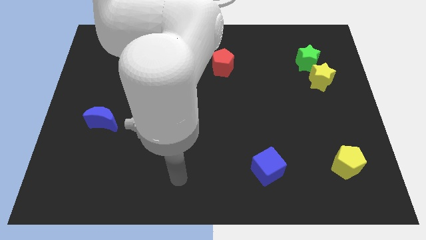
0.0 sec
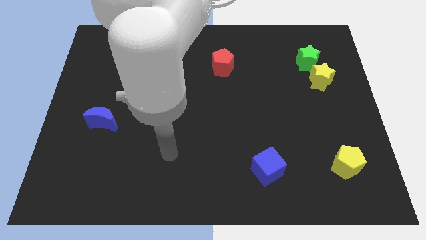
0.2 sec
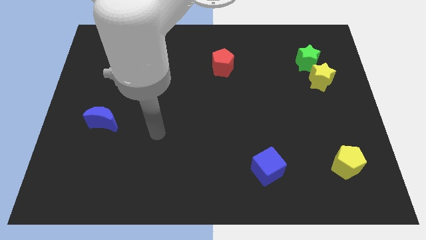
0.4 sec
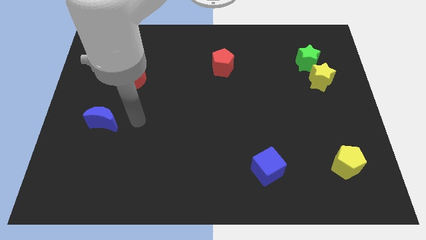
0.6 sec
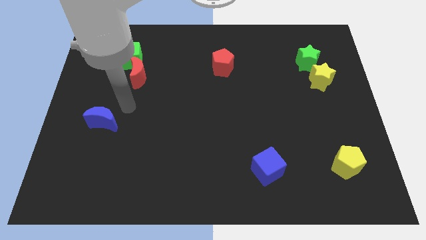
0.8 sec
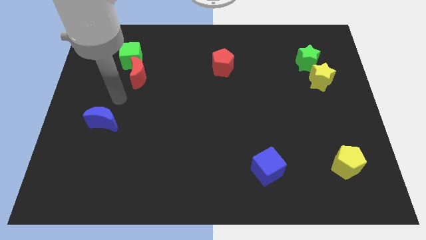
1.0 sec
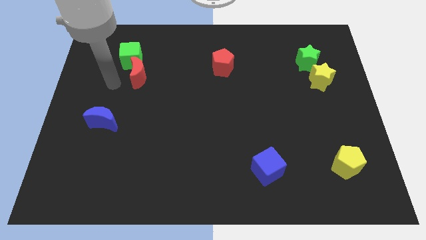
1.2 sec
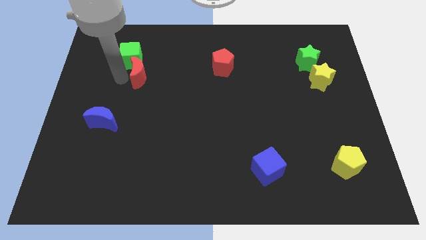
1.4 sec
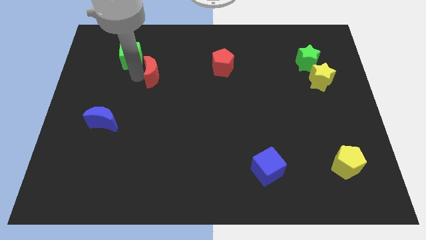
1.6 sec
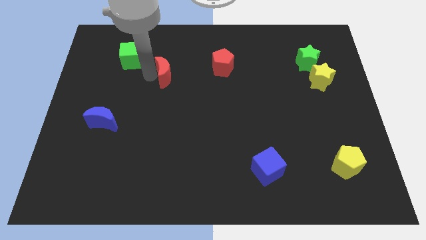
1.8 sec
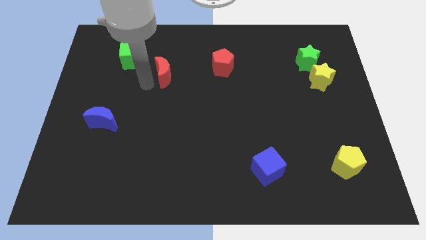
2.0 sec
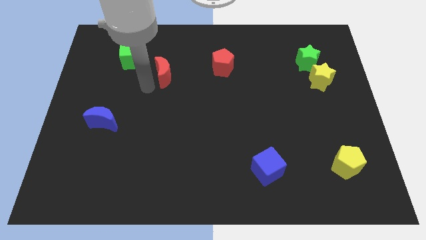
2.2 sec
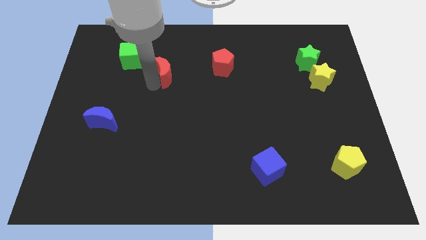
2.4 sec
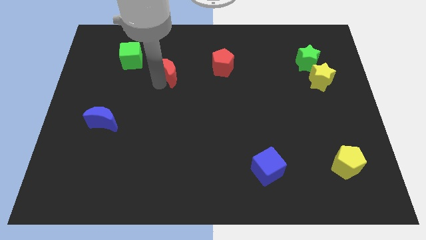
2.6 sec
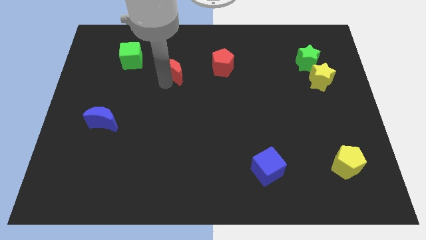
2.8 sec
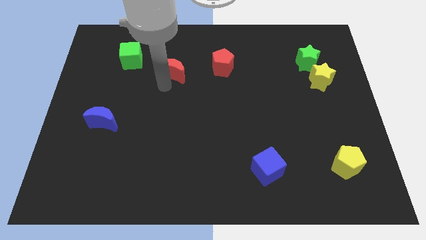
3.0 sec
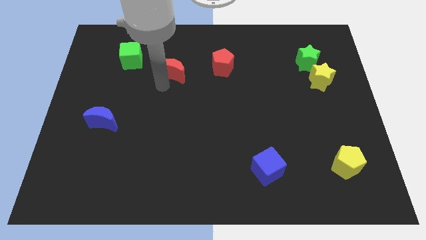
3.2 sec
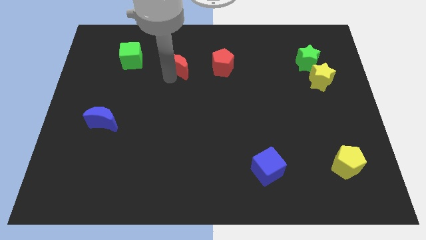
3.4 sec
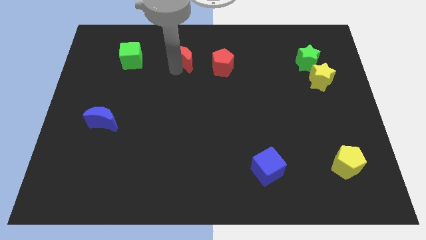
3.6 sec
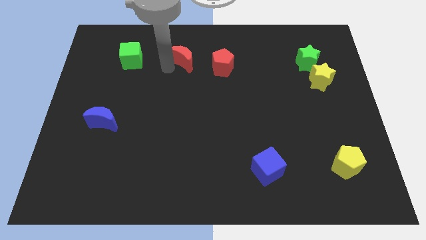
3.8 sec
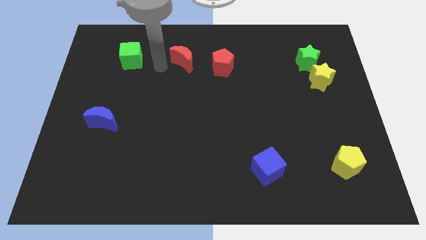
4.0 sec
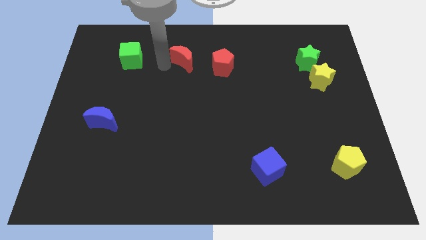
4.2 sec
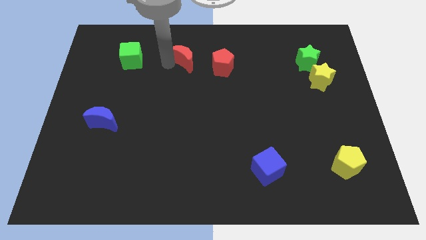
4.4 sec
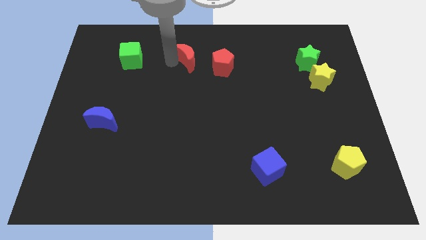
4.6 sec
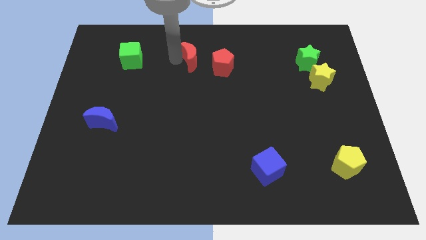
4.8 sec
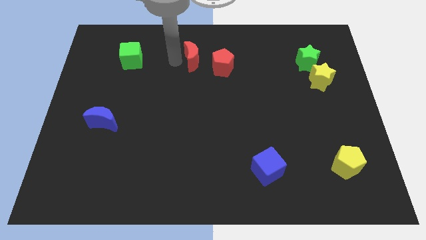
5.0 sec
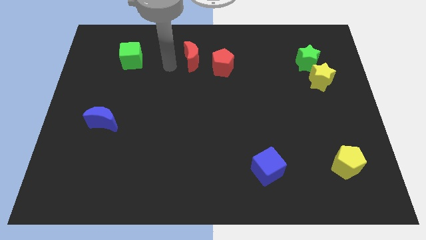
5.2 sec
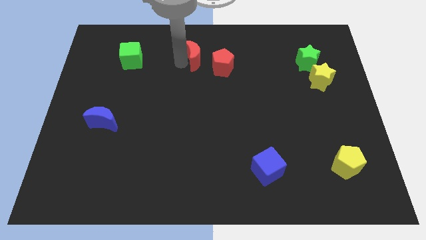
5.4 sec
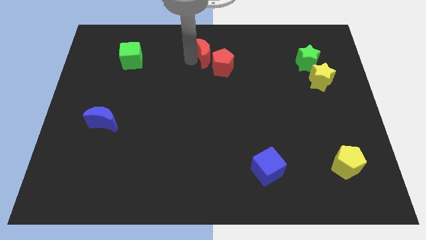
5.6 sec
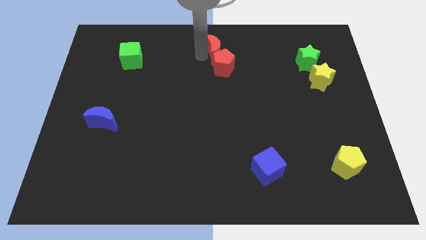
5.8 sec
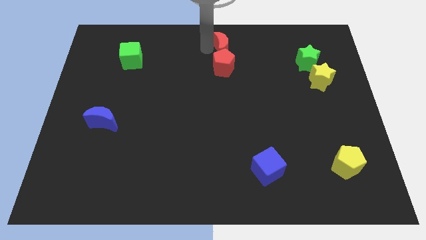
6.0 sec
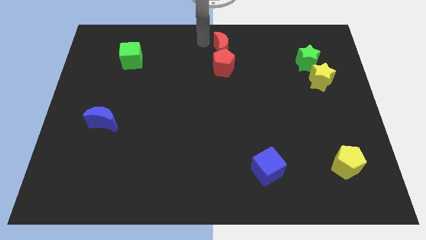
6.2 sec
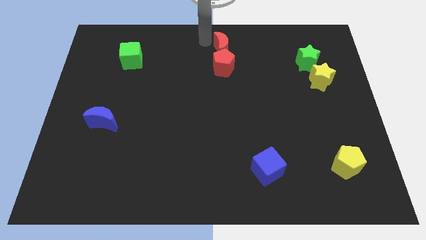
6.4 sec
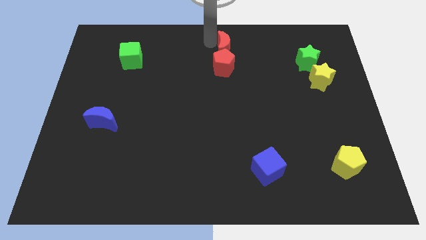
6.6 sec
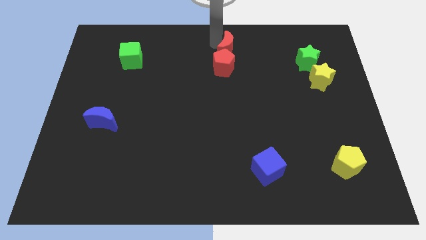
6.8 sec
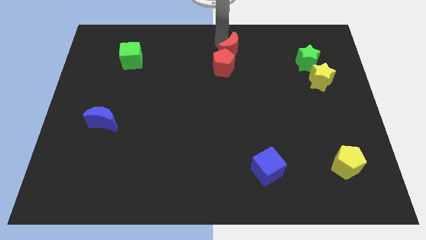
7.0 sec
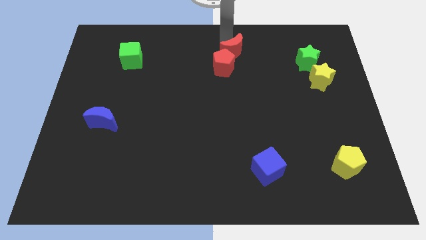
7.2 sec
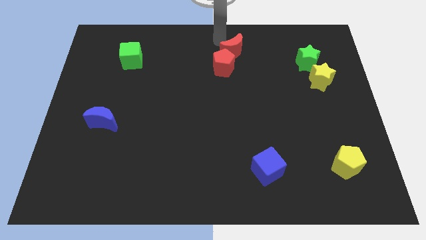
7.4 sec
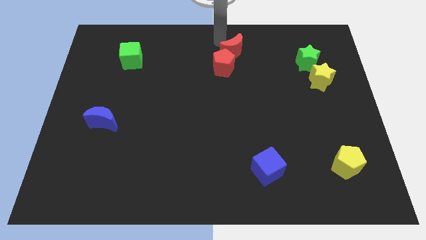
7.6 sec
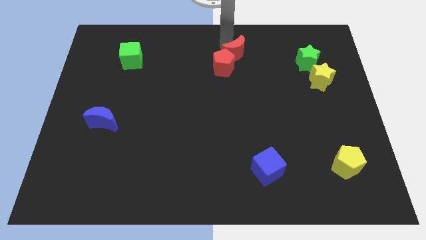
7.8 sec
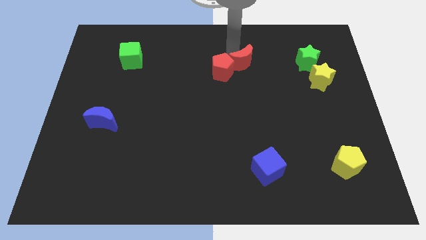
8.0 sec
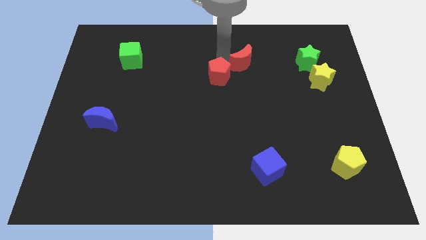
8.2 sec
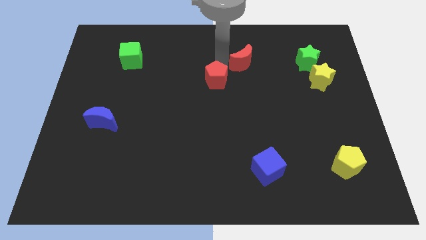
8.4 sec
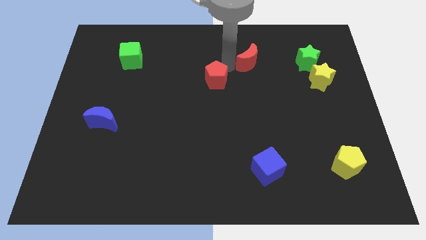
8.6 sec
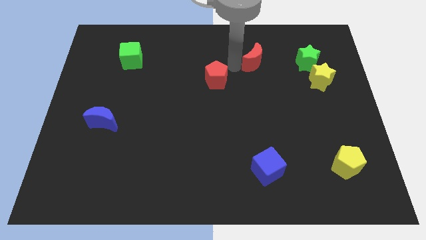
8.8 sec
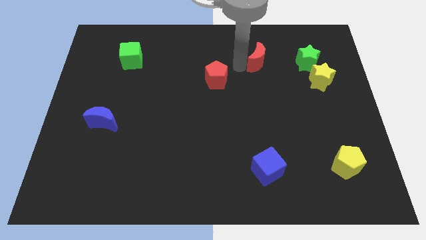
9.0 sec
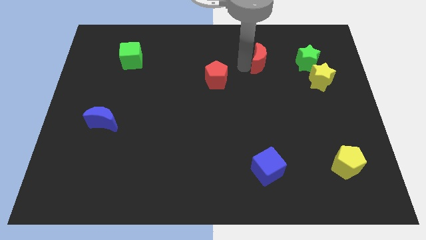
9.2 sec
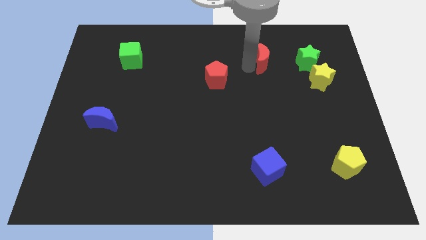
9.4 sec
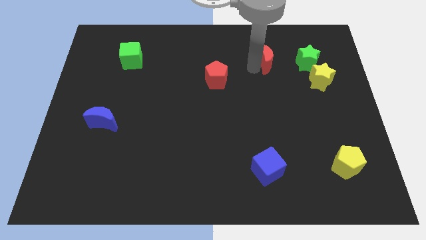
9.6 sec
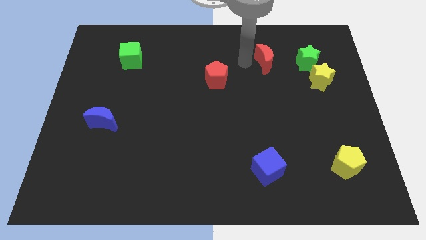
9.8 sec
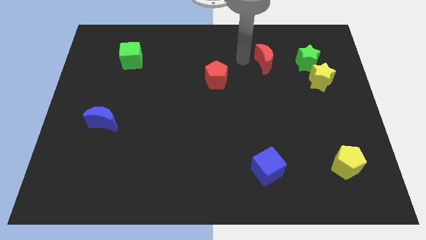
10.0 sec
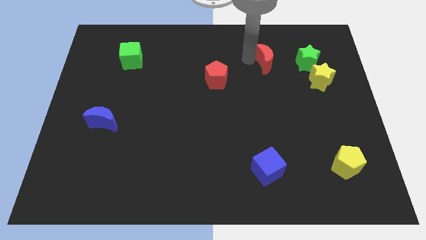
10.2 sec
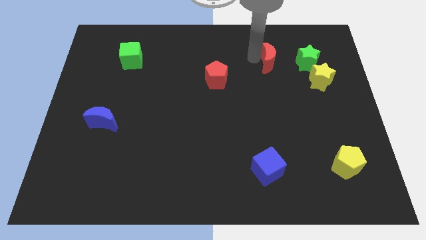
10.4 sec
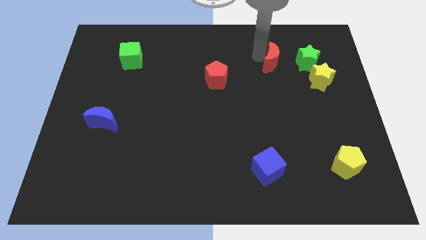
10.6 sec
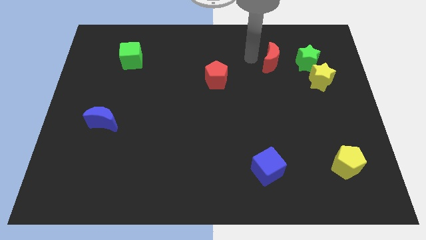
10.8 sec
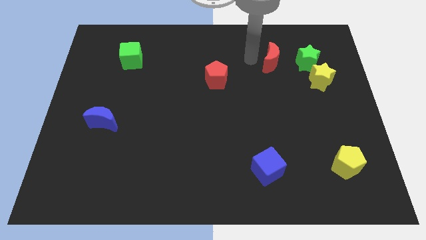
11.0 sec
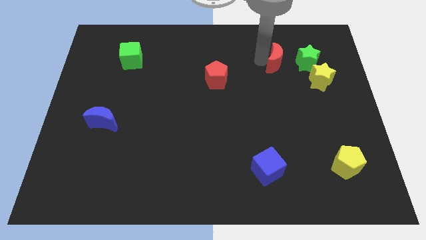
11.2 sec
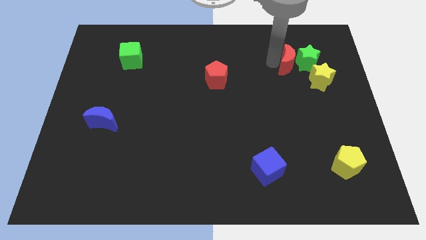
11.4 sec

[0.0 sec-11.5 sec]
slide the red moon towards the green star

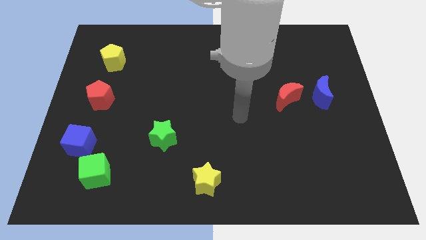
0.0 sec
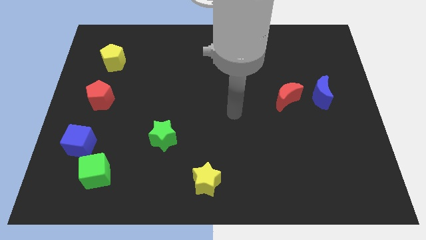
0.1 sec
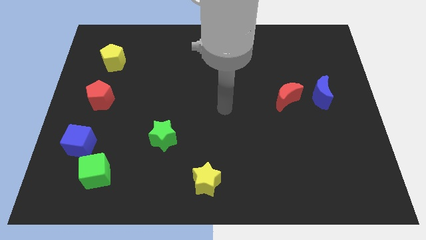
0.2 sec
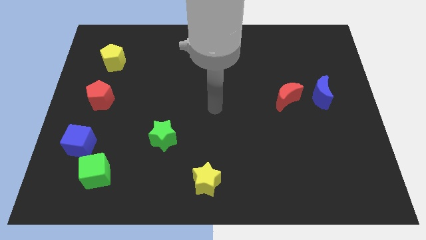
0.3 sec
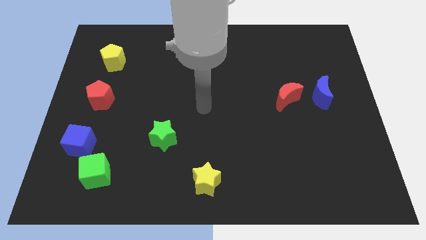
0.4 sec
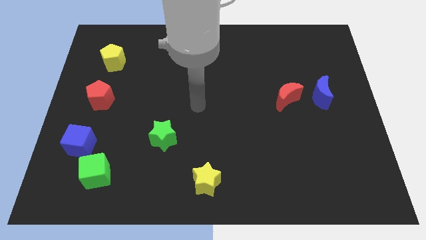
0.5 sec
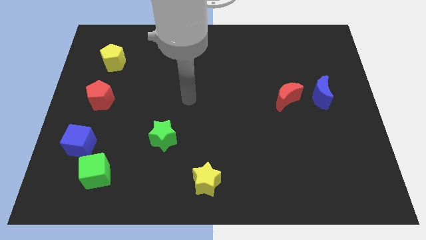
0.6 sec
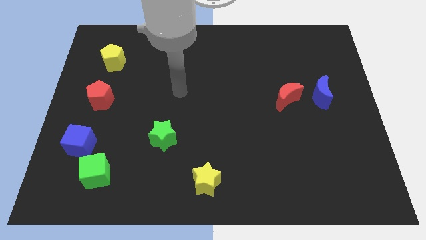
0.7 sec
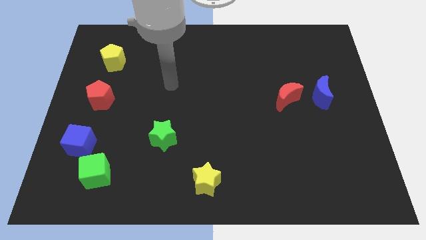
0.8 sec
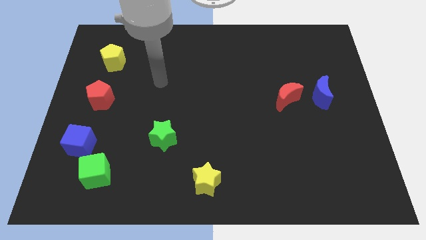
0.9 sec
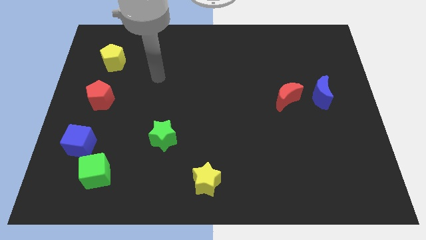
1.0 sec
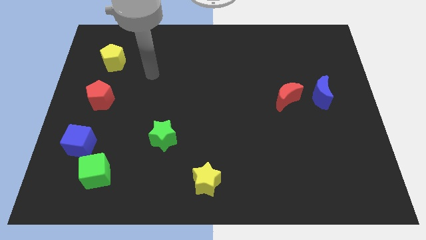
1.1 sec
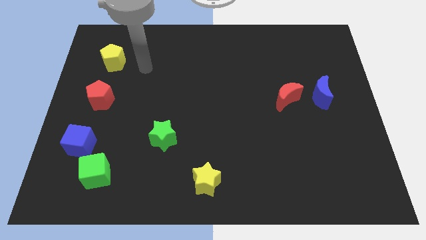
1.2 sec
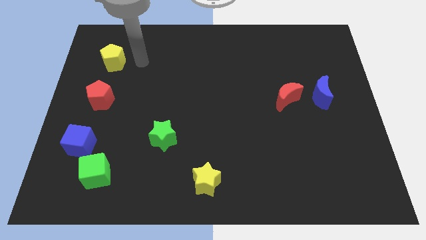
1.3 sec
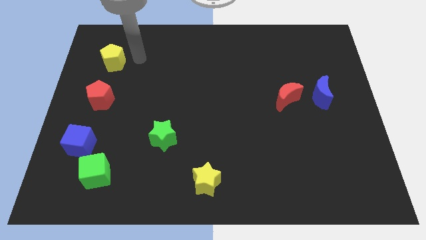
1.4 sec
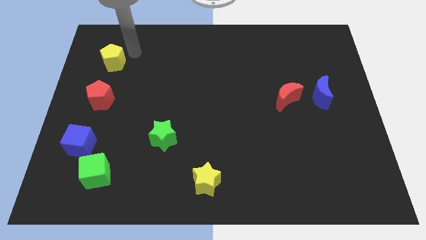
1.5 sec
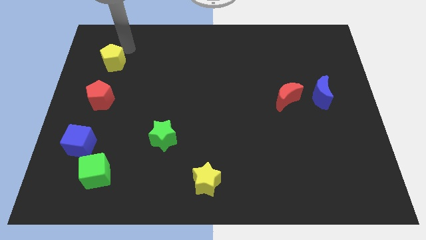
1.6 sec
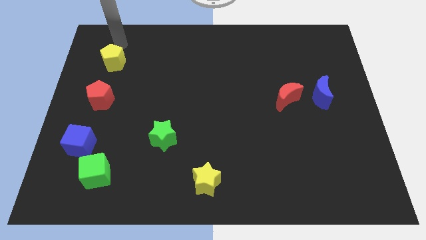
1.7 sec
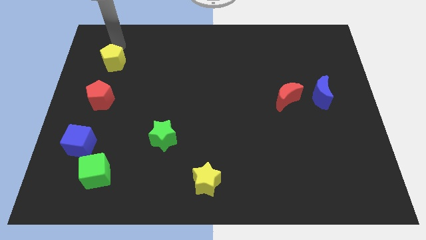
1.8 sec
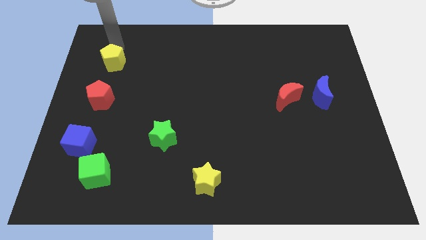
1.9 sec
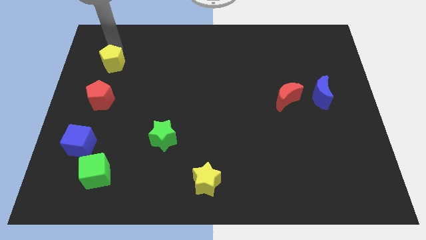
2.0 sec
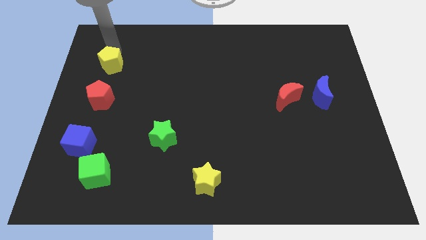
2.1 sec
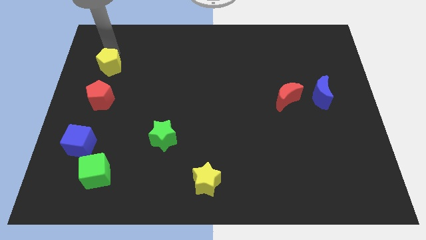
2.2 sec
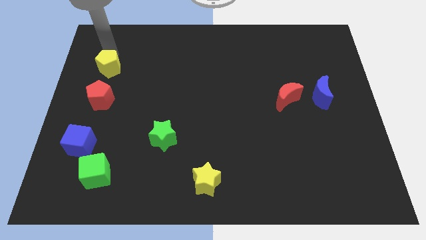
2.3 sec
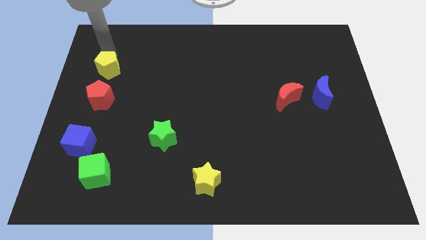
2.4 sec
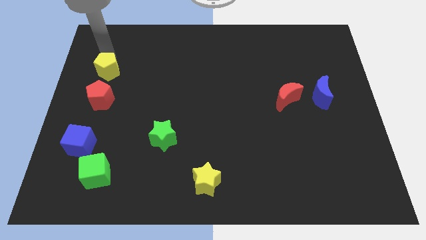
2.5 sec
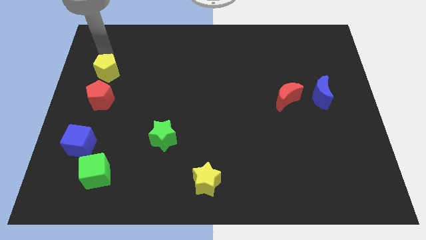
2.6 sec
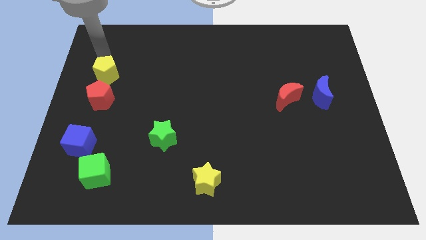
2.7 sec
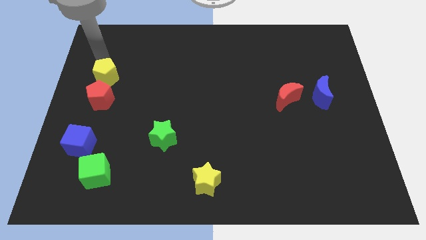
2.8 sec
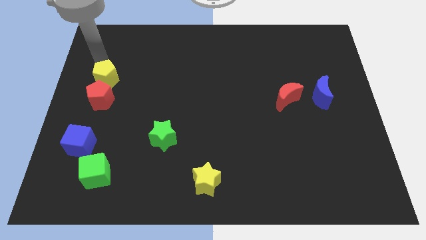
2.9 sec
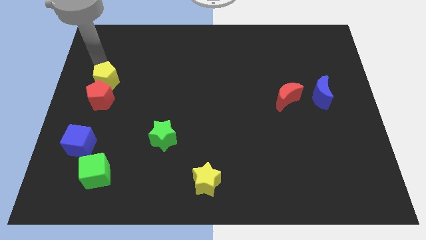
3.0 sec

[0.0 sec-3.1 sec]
slide the yellow pentagon towards the red pentagon
